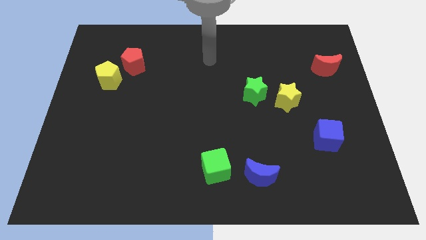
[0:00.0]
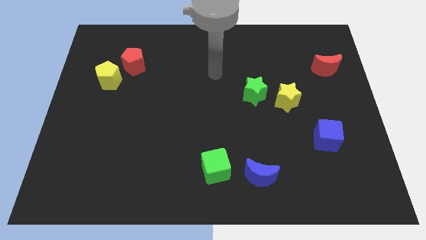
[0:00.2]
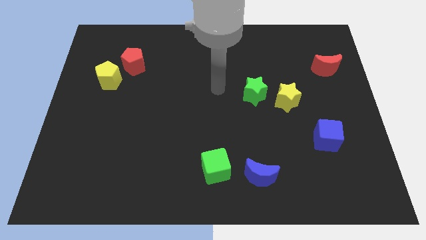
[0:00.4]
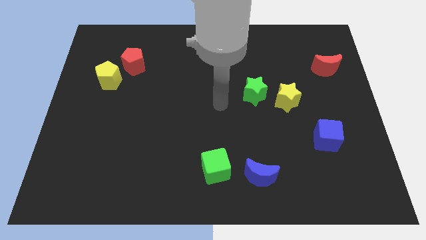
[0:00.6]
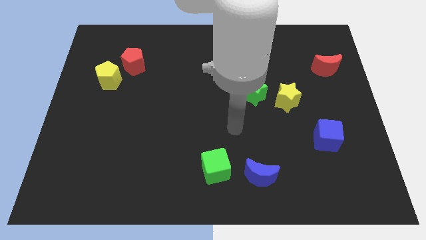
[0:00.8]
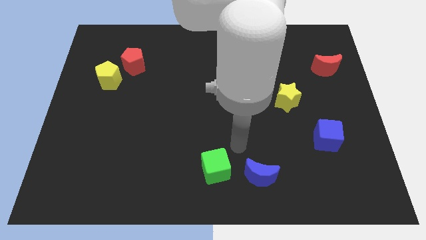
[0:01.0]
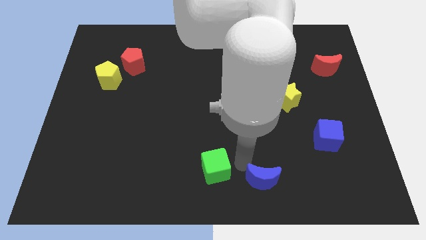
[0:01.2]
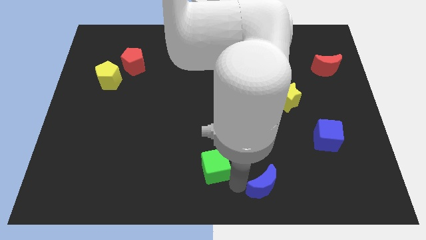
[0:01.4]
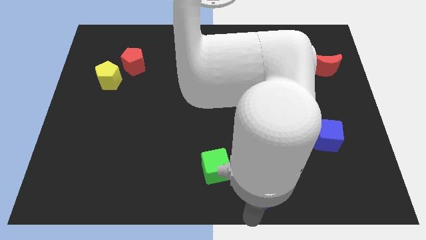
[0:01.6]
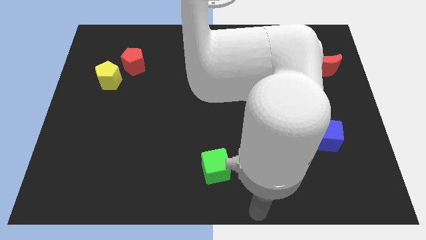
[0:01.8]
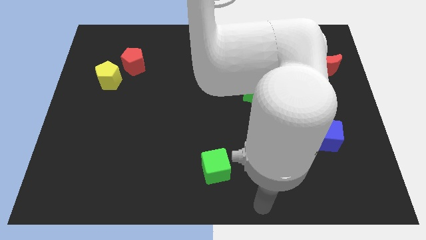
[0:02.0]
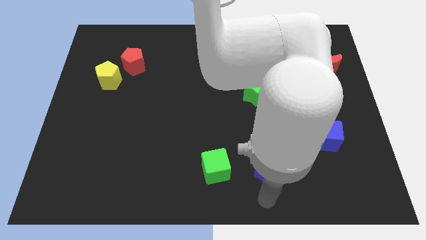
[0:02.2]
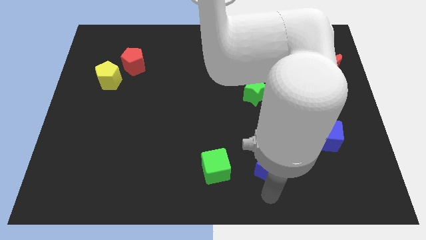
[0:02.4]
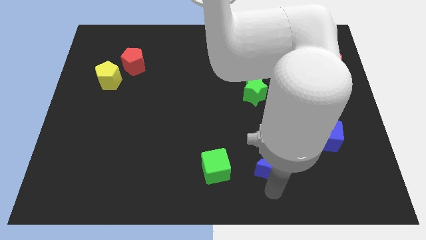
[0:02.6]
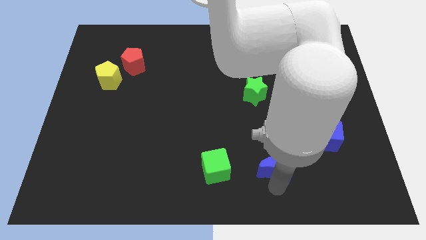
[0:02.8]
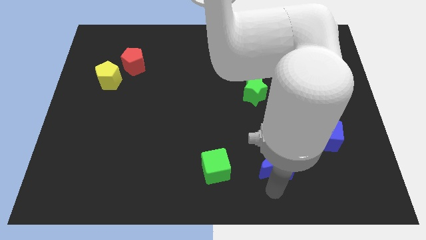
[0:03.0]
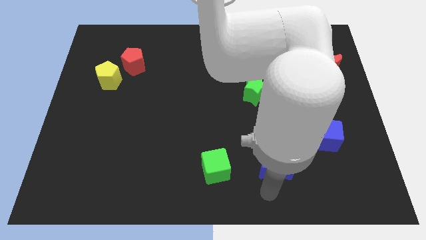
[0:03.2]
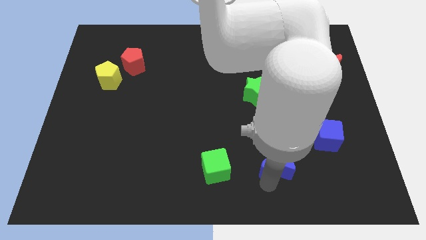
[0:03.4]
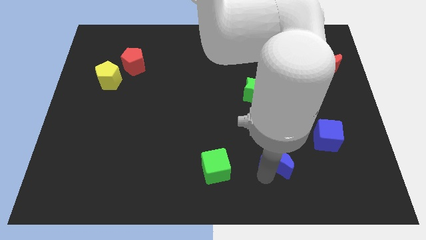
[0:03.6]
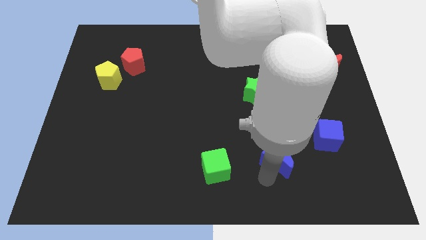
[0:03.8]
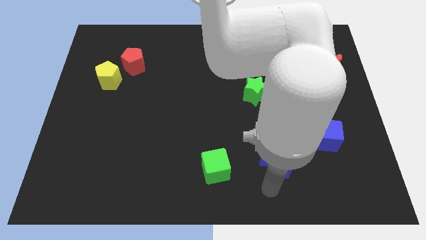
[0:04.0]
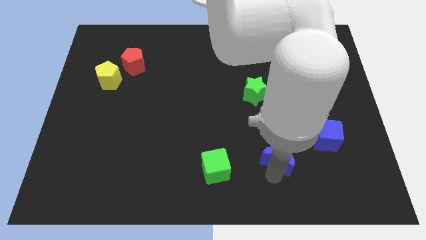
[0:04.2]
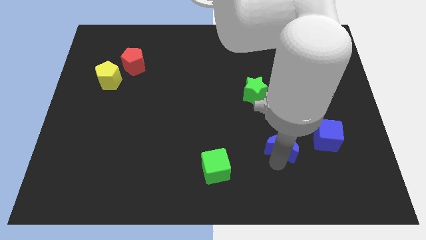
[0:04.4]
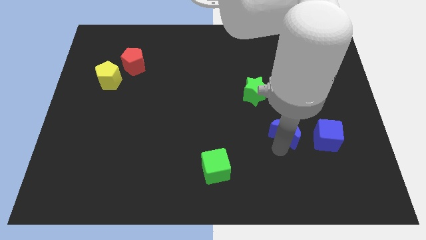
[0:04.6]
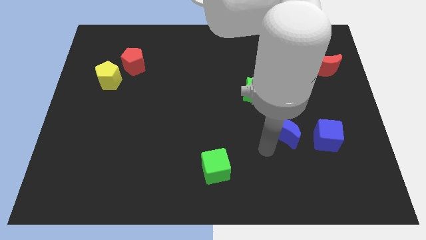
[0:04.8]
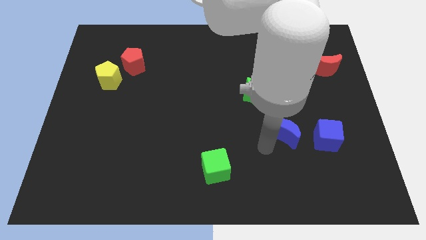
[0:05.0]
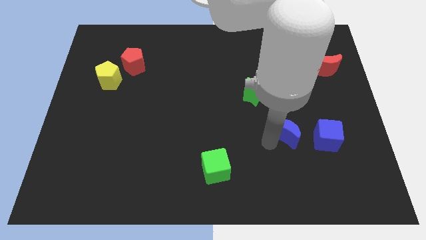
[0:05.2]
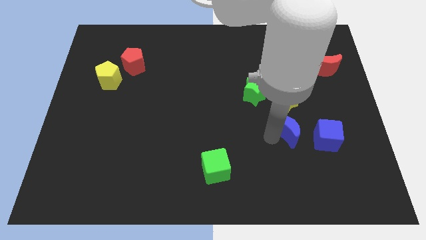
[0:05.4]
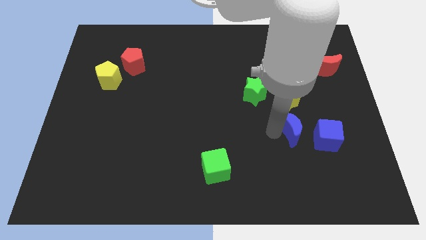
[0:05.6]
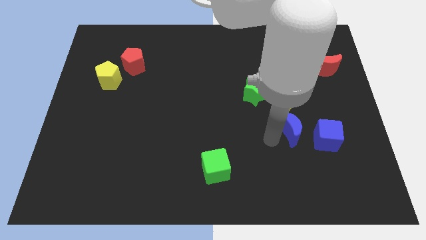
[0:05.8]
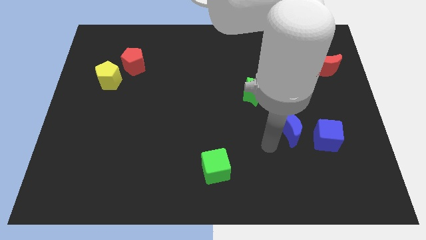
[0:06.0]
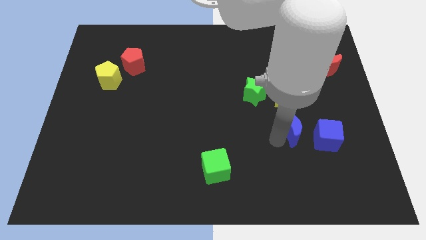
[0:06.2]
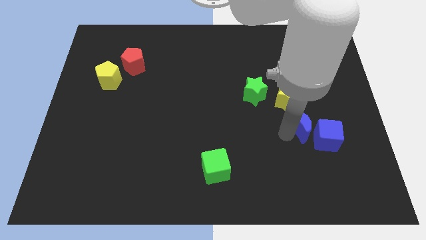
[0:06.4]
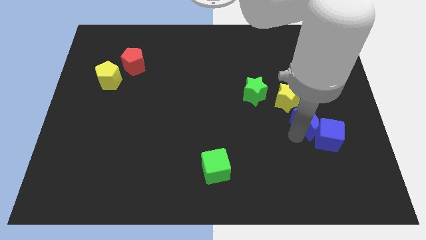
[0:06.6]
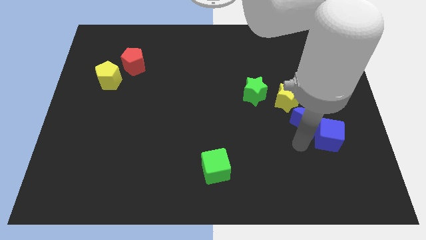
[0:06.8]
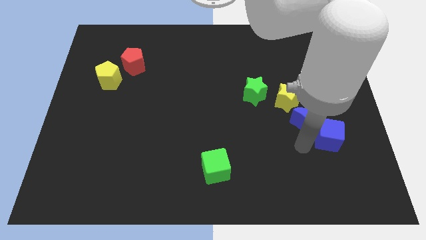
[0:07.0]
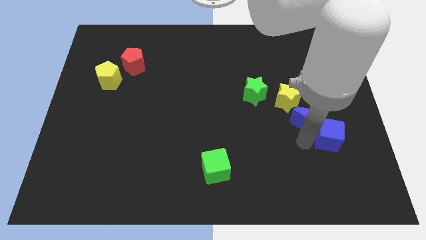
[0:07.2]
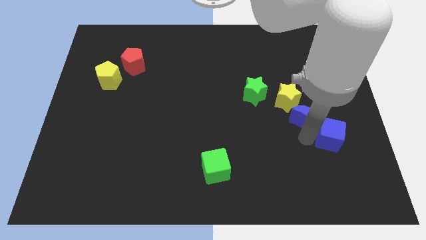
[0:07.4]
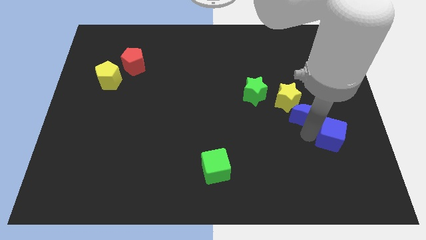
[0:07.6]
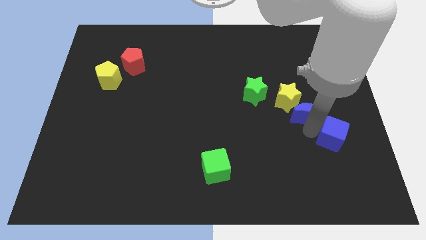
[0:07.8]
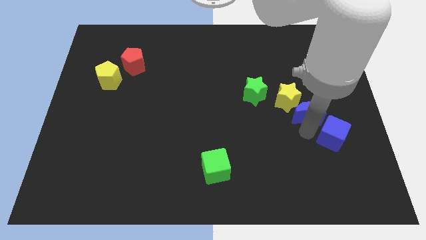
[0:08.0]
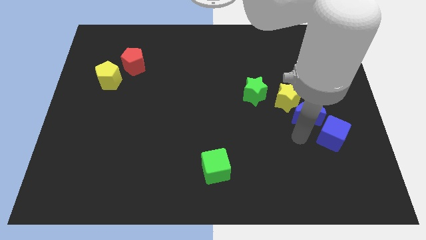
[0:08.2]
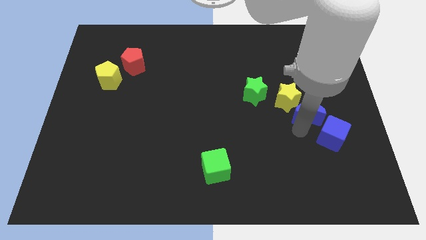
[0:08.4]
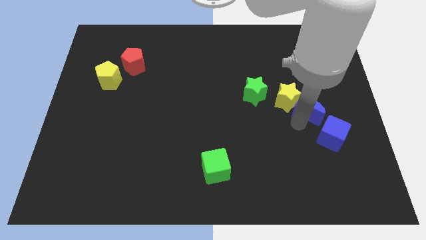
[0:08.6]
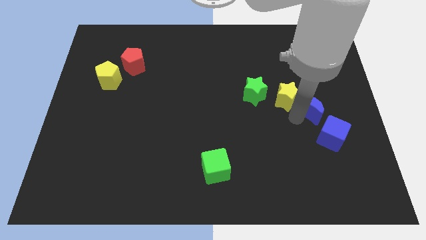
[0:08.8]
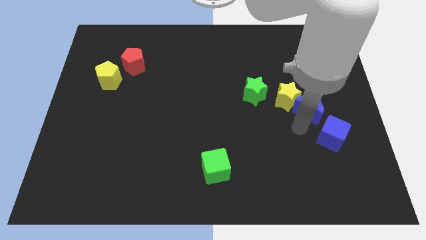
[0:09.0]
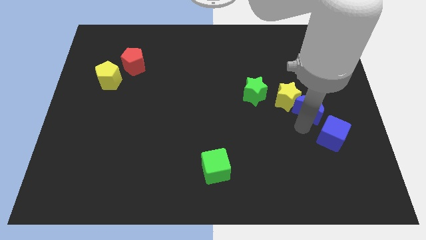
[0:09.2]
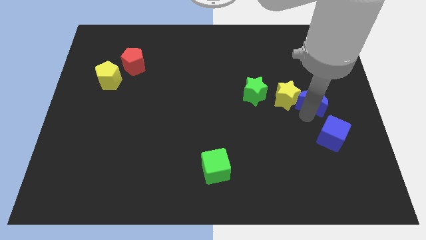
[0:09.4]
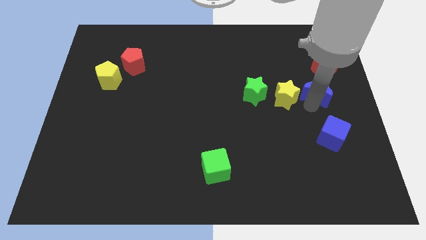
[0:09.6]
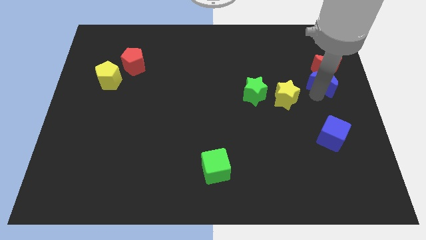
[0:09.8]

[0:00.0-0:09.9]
push the blue moon close to the red moon

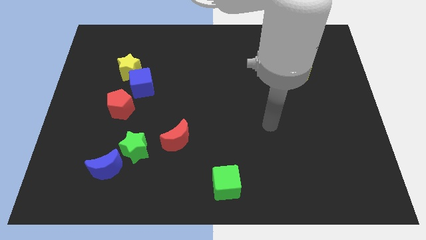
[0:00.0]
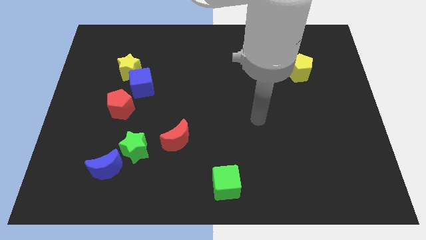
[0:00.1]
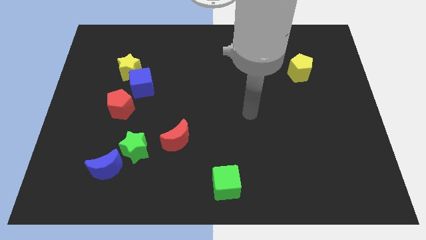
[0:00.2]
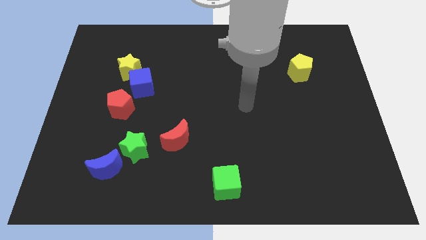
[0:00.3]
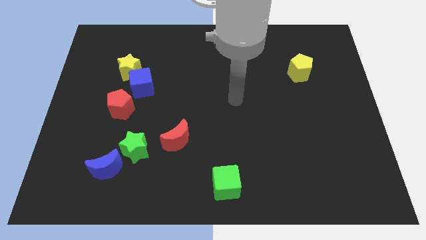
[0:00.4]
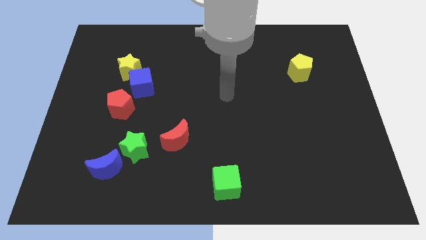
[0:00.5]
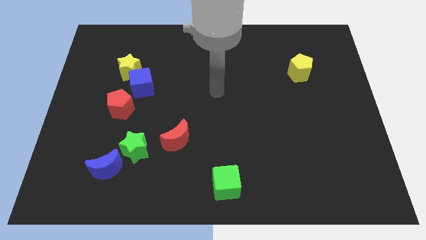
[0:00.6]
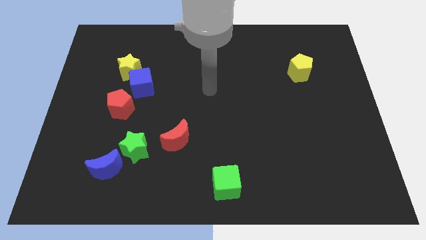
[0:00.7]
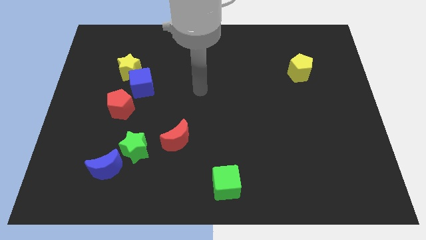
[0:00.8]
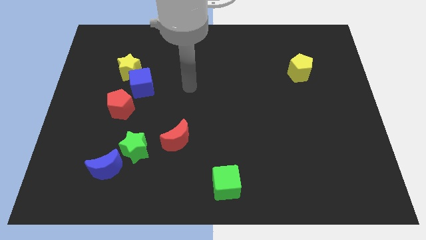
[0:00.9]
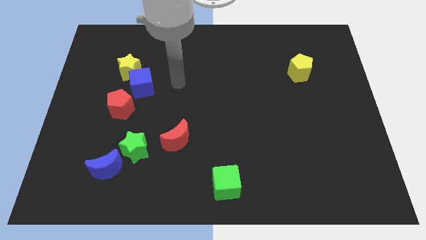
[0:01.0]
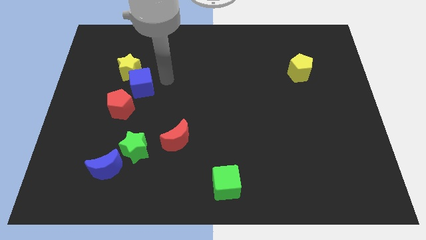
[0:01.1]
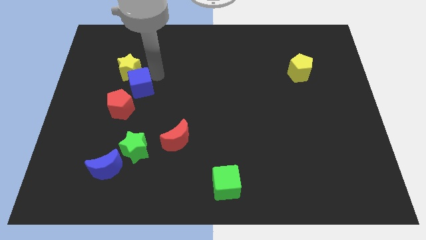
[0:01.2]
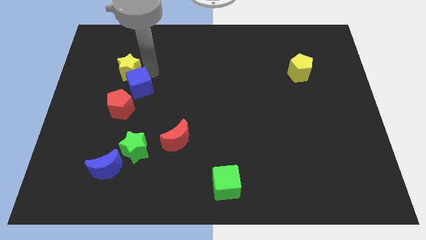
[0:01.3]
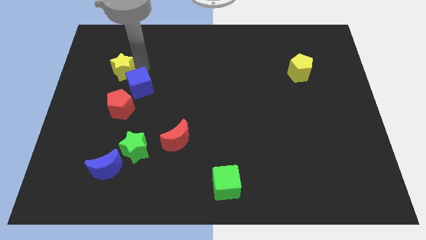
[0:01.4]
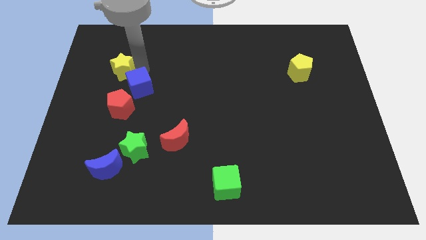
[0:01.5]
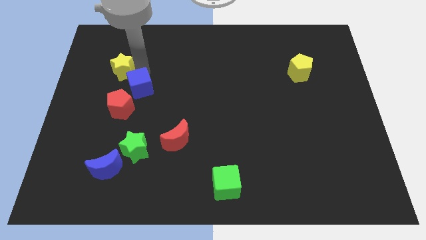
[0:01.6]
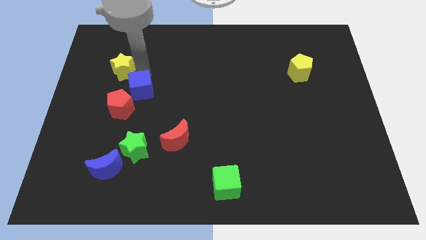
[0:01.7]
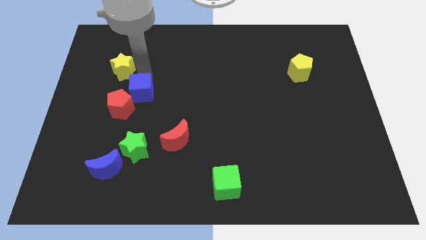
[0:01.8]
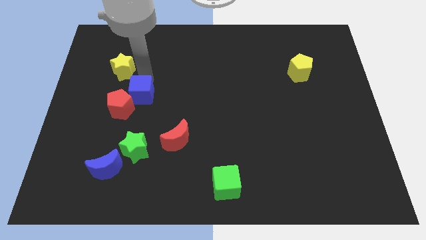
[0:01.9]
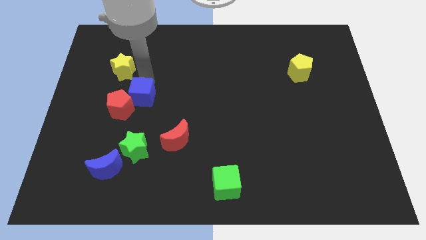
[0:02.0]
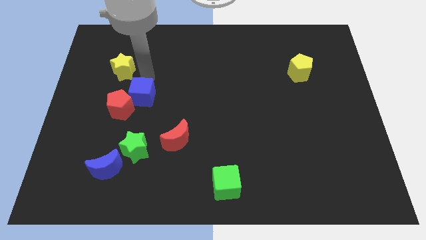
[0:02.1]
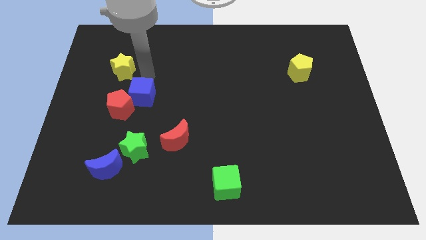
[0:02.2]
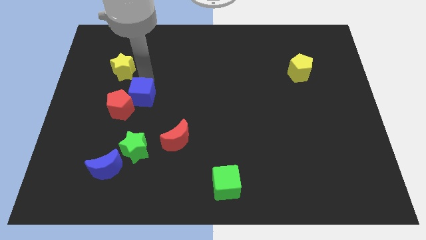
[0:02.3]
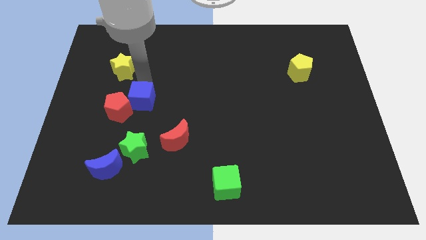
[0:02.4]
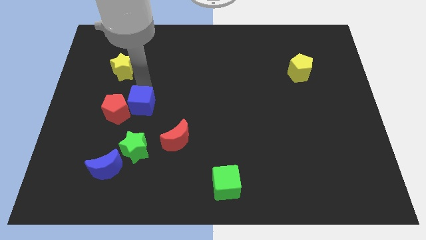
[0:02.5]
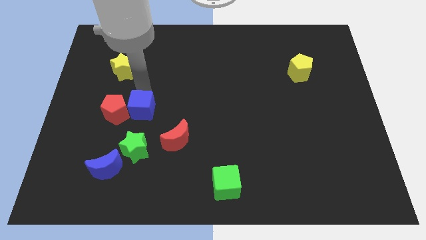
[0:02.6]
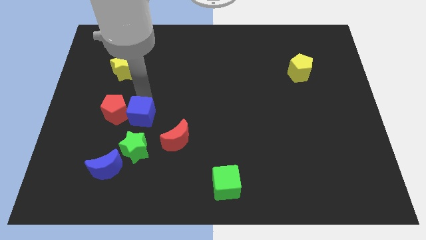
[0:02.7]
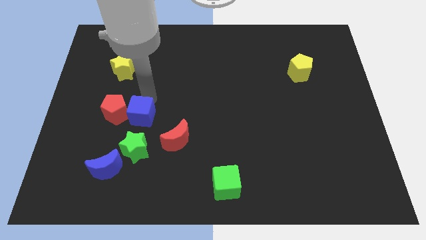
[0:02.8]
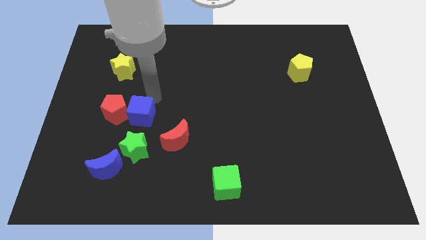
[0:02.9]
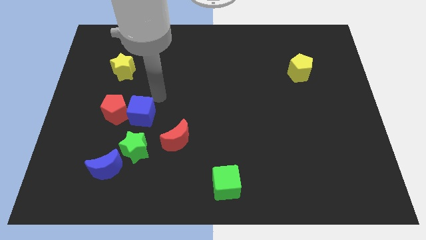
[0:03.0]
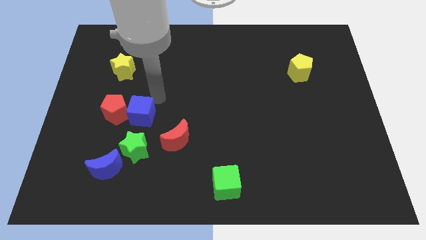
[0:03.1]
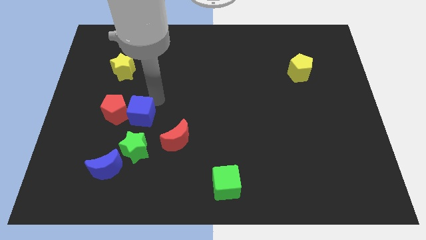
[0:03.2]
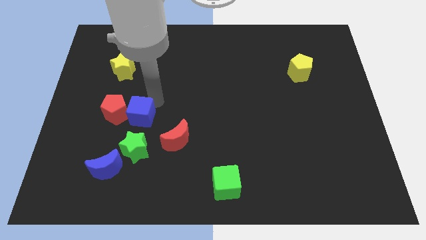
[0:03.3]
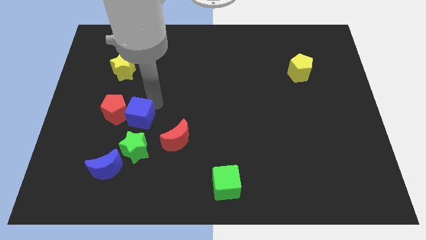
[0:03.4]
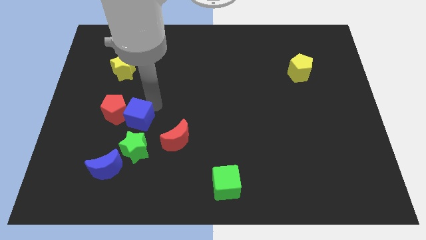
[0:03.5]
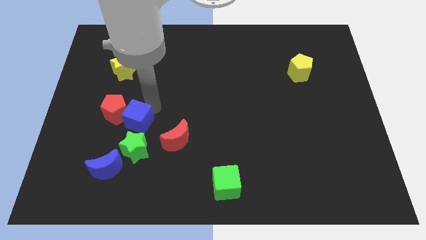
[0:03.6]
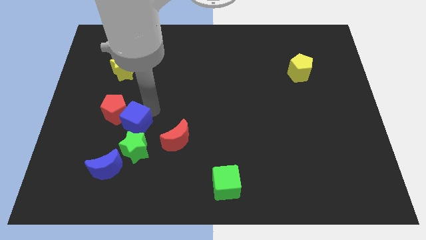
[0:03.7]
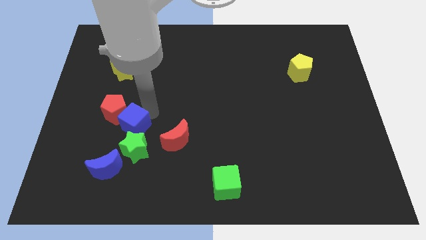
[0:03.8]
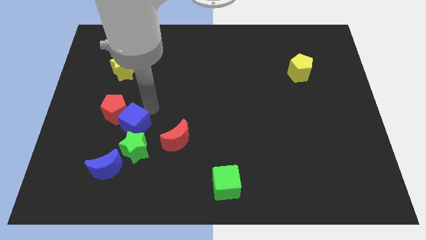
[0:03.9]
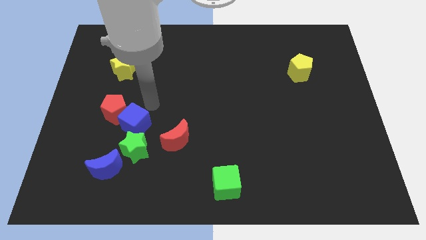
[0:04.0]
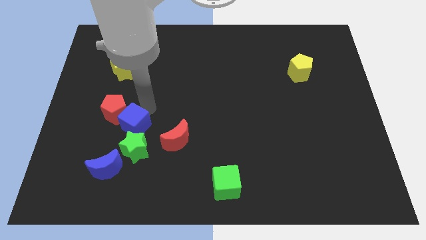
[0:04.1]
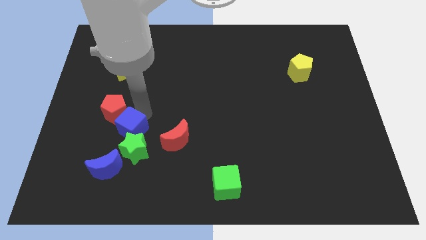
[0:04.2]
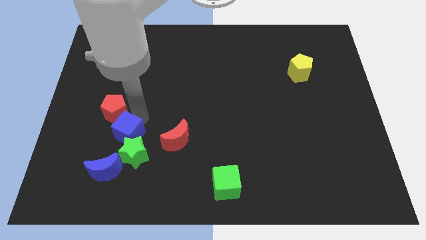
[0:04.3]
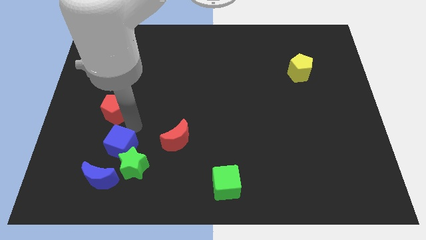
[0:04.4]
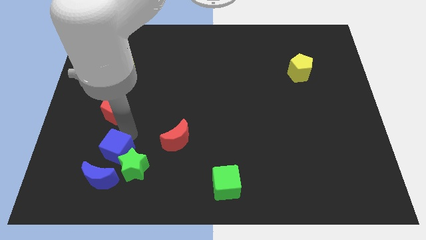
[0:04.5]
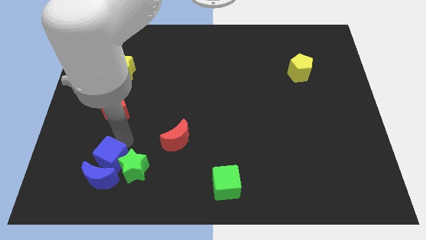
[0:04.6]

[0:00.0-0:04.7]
push the blue cube towards the blue moon
